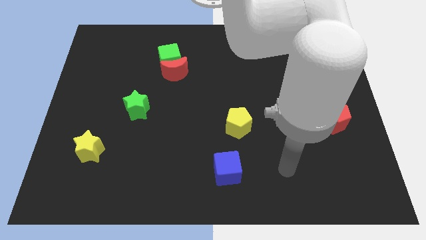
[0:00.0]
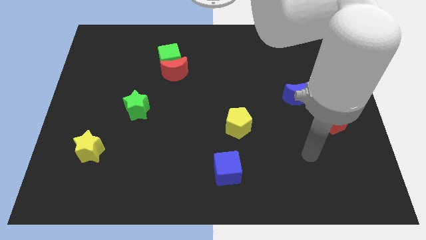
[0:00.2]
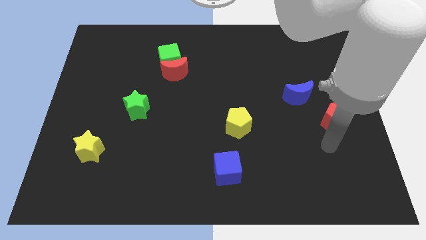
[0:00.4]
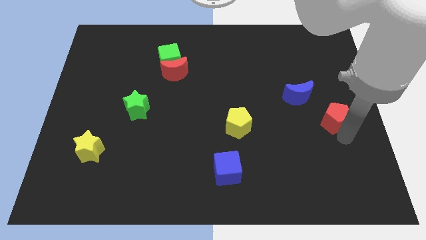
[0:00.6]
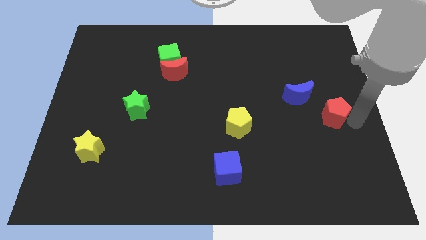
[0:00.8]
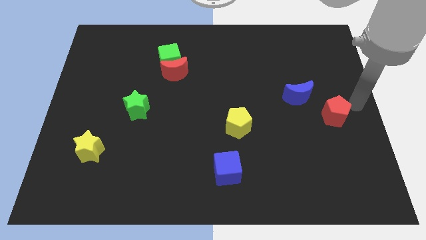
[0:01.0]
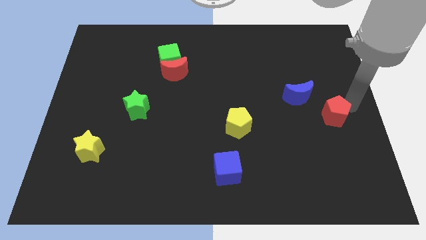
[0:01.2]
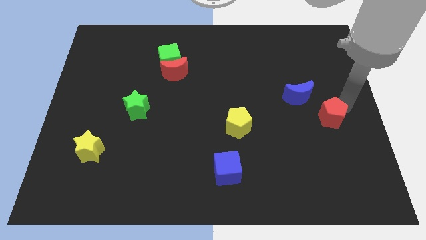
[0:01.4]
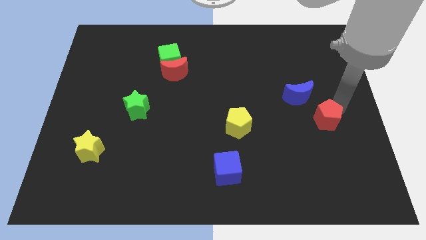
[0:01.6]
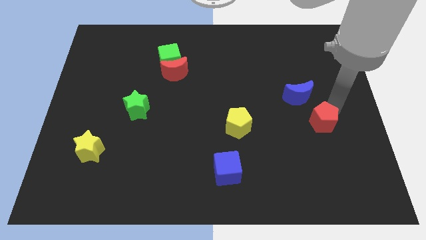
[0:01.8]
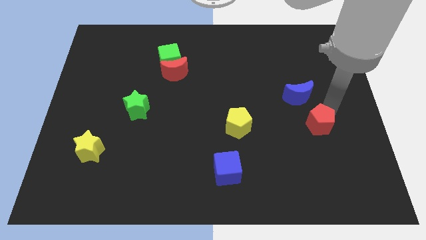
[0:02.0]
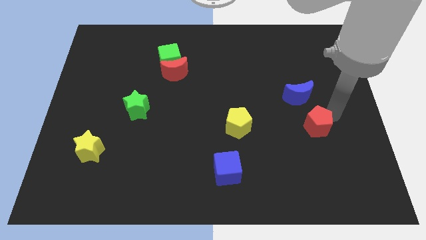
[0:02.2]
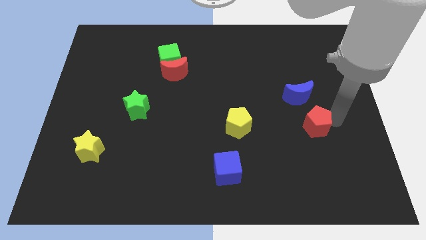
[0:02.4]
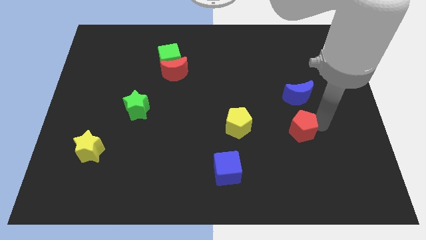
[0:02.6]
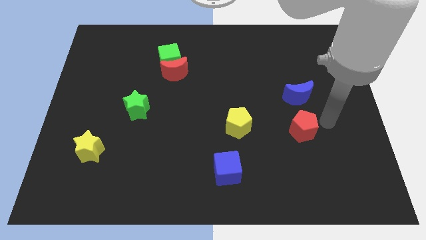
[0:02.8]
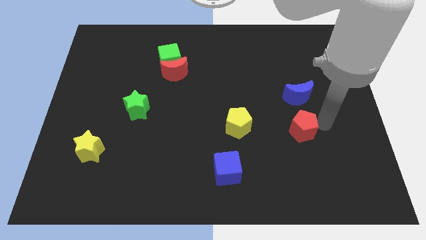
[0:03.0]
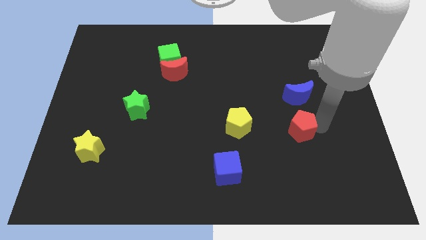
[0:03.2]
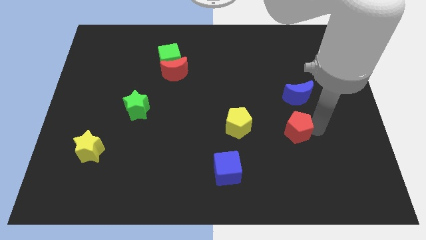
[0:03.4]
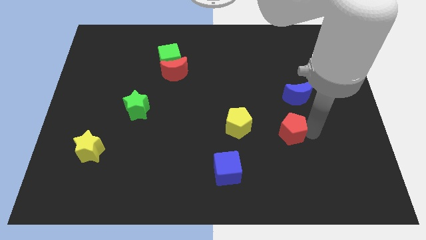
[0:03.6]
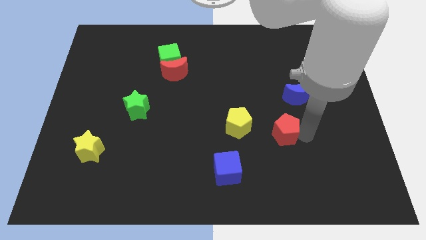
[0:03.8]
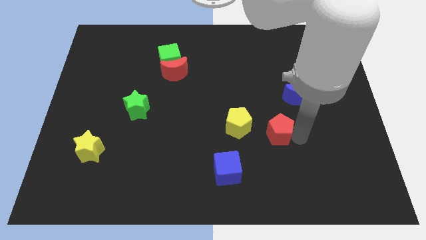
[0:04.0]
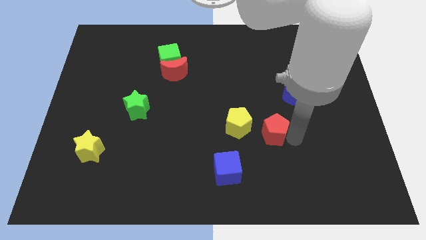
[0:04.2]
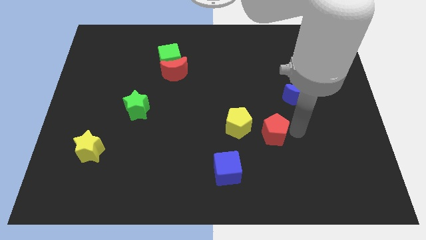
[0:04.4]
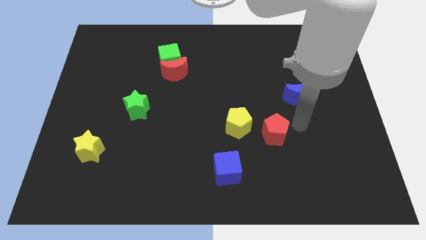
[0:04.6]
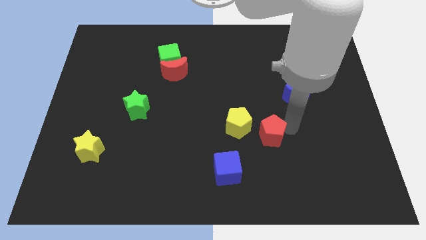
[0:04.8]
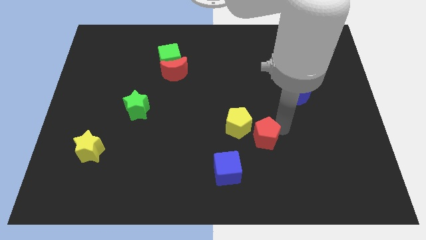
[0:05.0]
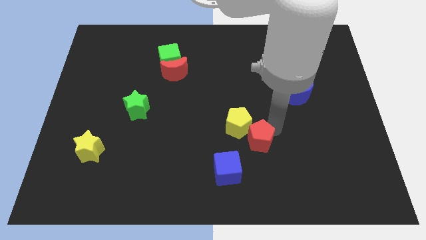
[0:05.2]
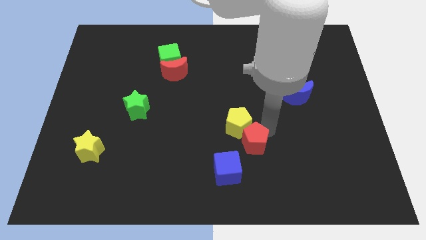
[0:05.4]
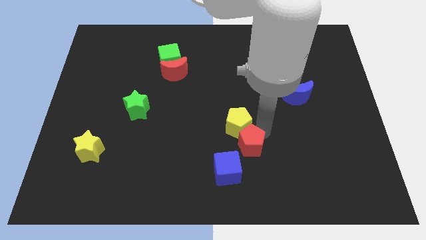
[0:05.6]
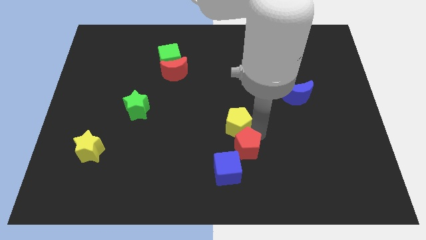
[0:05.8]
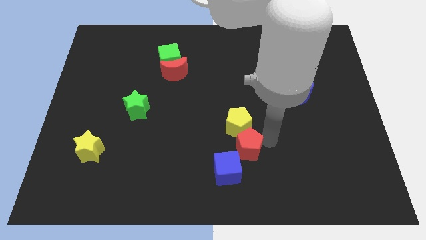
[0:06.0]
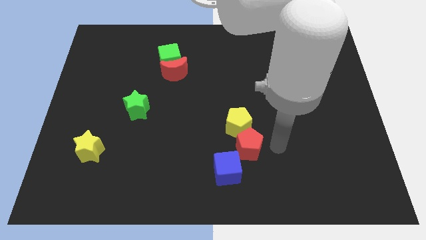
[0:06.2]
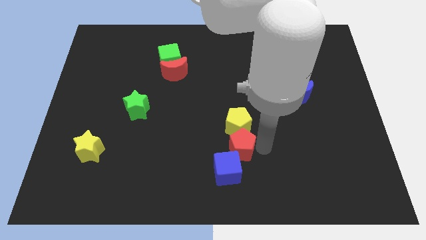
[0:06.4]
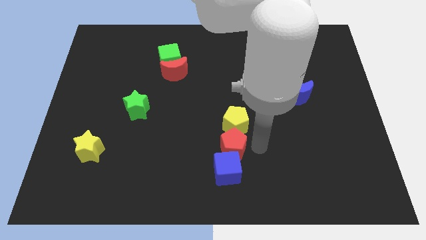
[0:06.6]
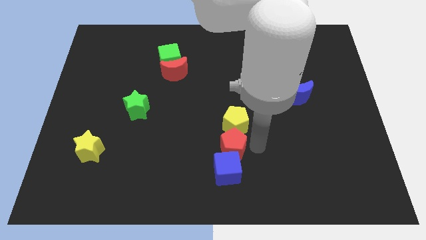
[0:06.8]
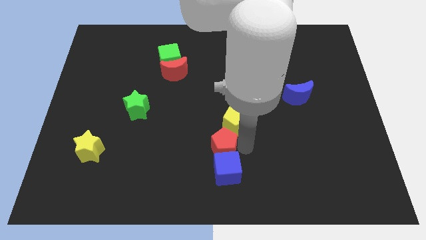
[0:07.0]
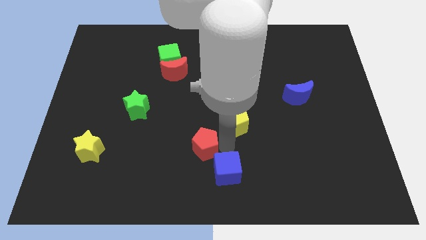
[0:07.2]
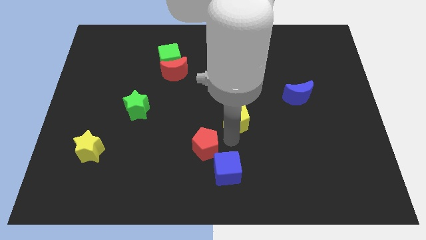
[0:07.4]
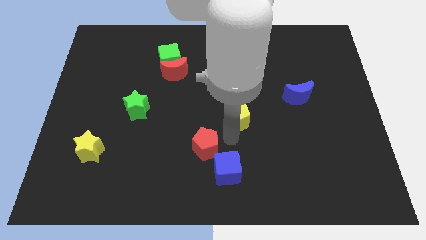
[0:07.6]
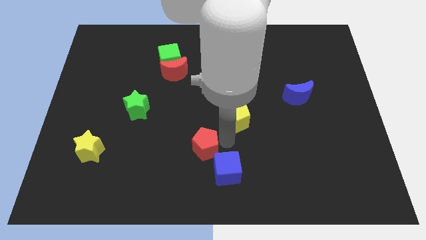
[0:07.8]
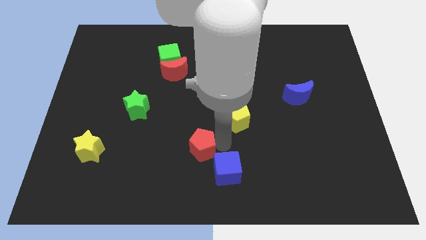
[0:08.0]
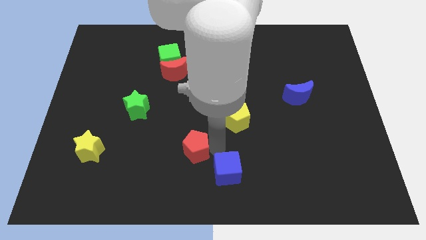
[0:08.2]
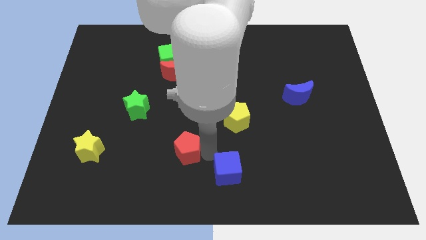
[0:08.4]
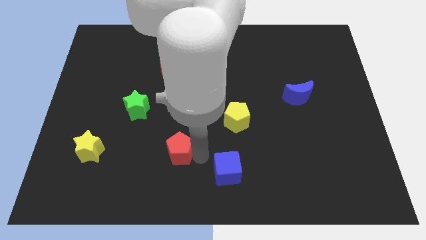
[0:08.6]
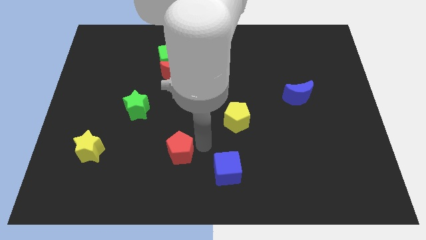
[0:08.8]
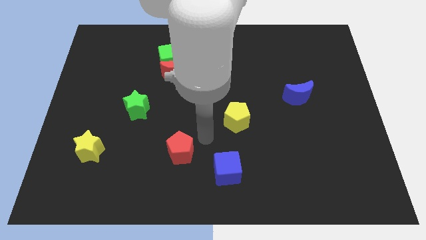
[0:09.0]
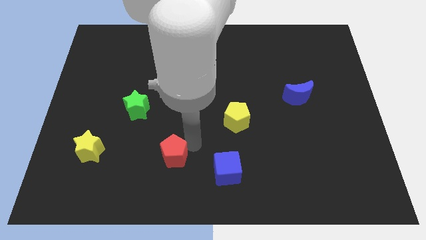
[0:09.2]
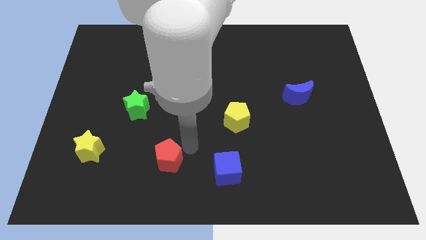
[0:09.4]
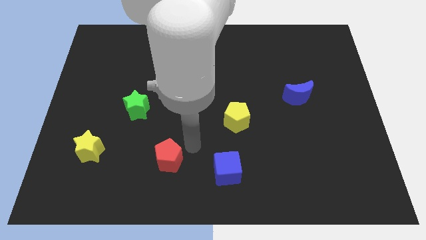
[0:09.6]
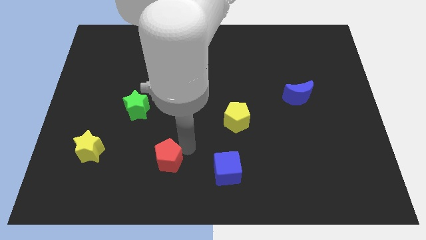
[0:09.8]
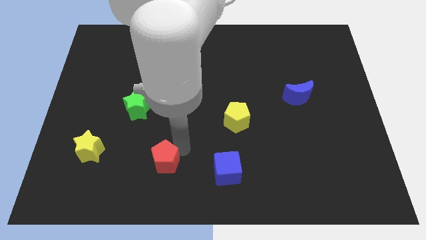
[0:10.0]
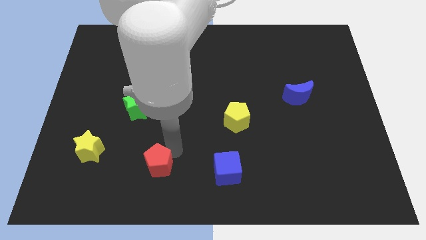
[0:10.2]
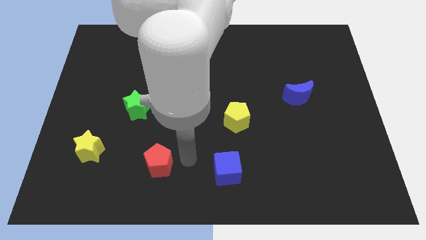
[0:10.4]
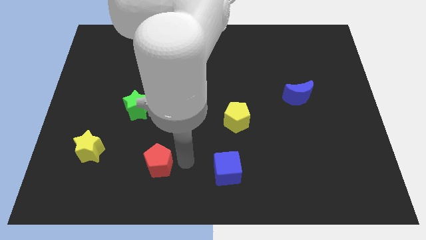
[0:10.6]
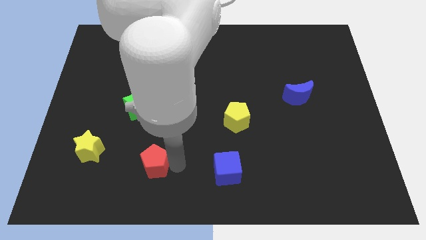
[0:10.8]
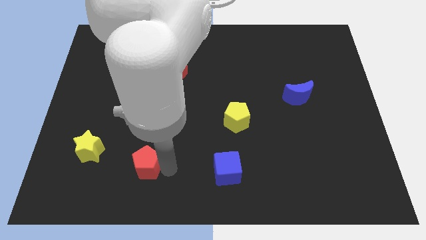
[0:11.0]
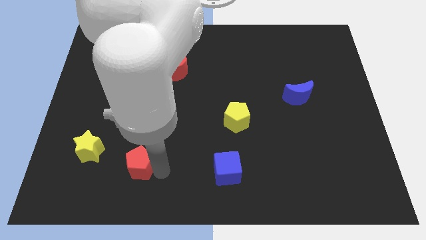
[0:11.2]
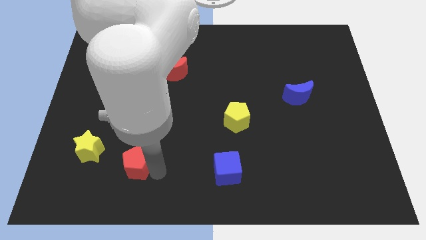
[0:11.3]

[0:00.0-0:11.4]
move the red pentagon to the bottom right of the yellow star

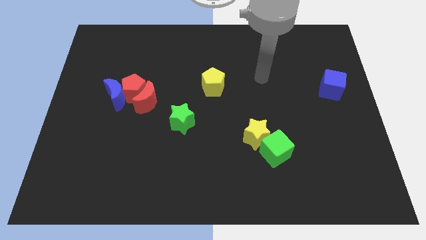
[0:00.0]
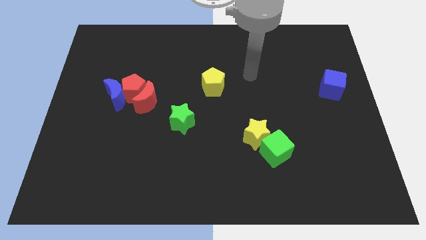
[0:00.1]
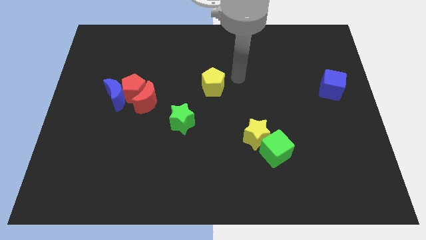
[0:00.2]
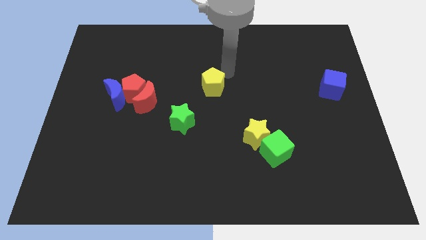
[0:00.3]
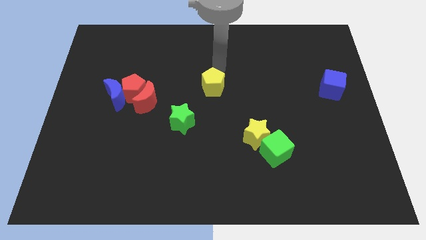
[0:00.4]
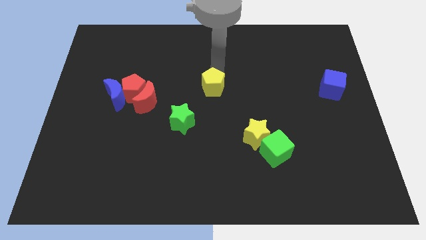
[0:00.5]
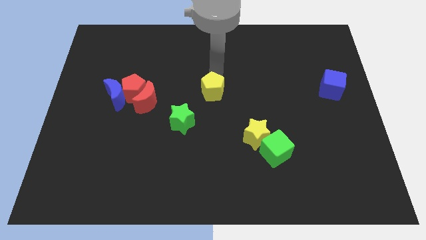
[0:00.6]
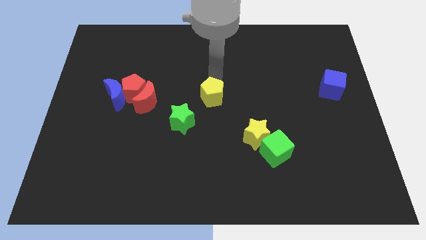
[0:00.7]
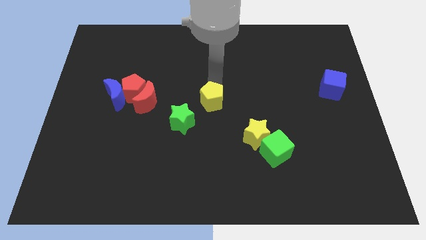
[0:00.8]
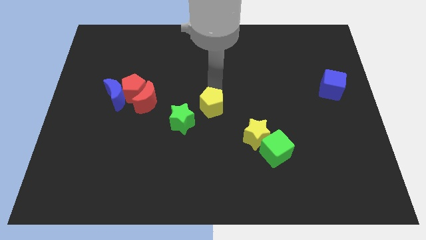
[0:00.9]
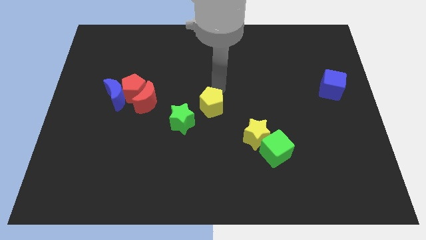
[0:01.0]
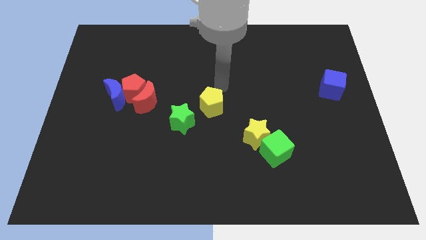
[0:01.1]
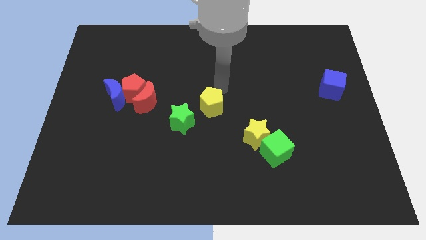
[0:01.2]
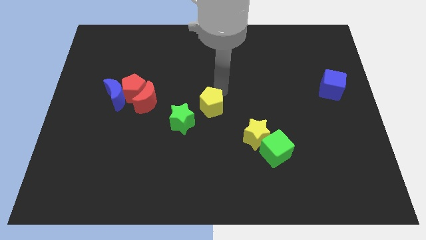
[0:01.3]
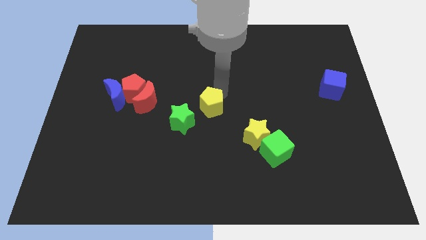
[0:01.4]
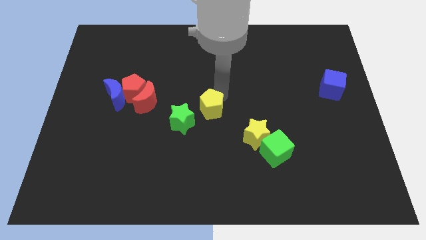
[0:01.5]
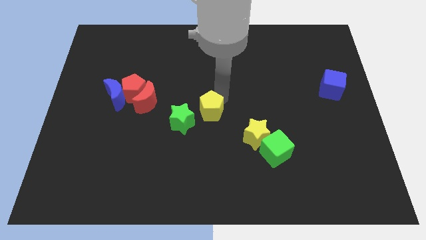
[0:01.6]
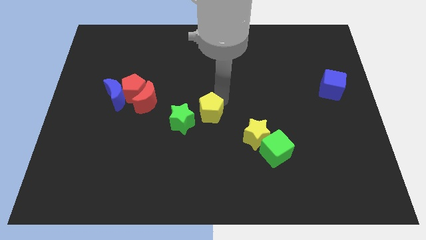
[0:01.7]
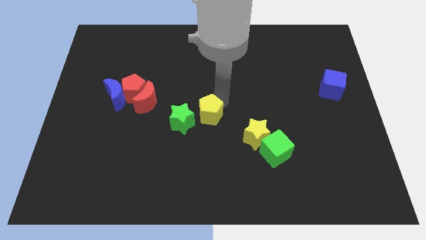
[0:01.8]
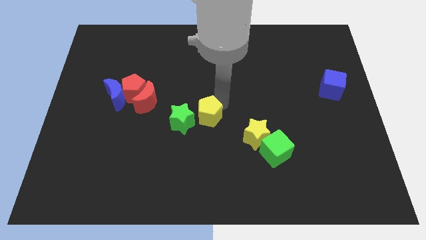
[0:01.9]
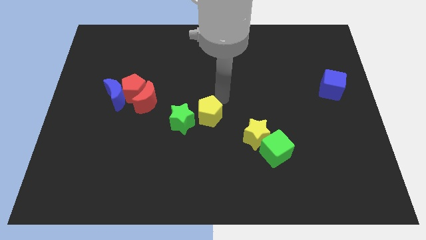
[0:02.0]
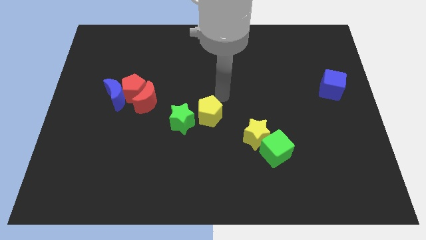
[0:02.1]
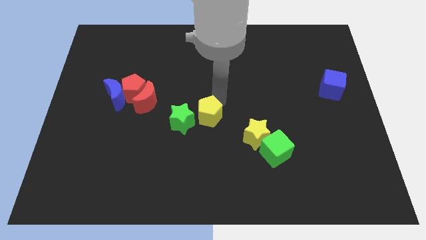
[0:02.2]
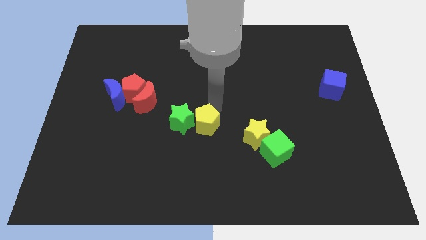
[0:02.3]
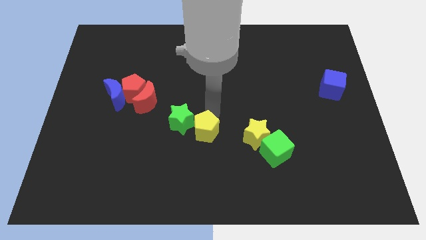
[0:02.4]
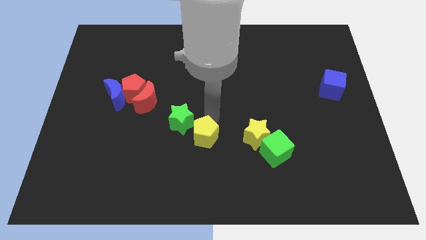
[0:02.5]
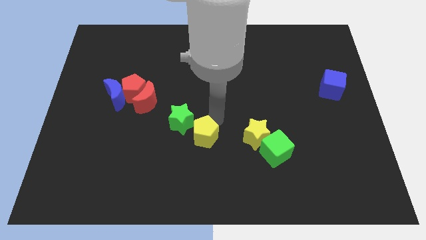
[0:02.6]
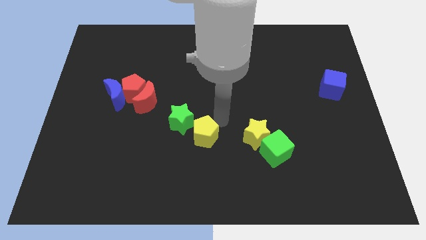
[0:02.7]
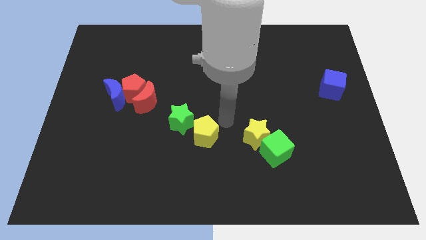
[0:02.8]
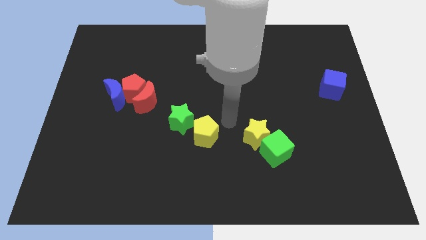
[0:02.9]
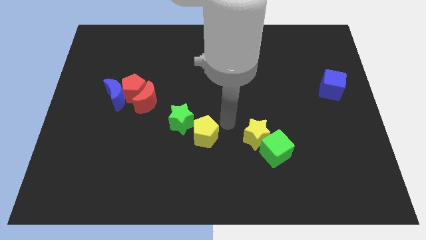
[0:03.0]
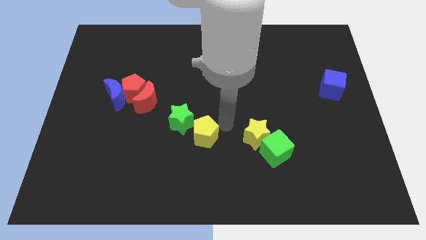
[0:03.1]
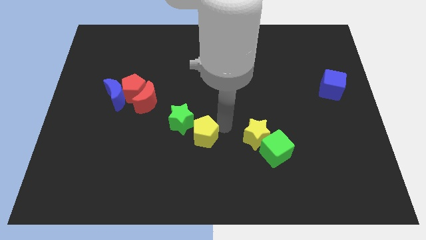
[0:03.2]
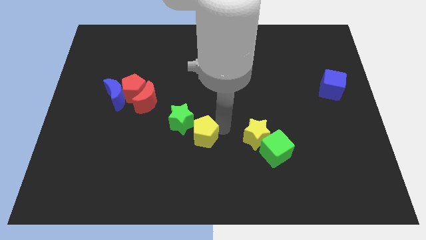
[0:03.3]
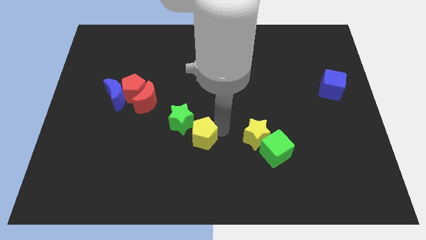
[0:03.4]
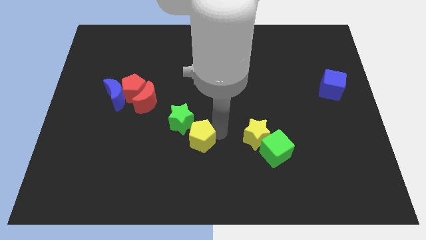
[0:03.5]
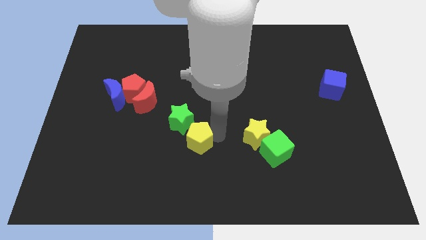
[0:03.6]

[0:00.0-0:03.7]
slide the yellow pentagon to the bottom of the green star
